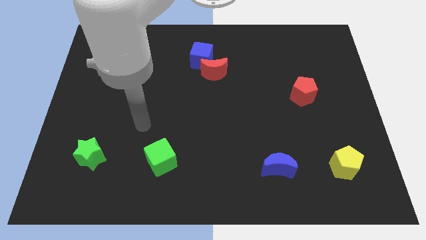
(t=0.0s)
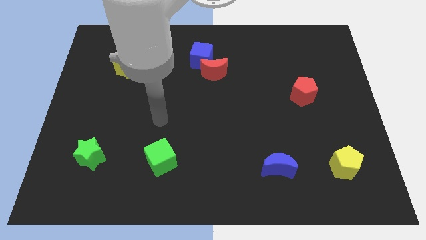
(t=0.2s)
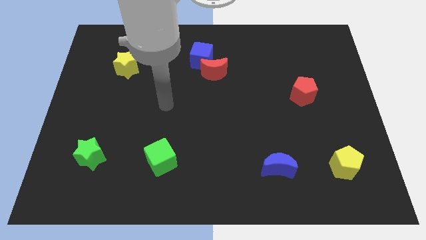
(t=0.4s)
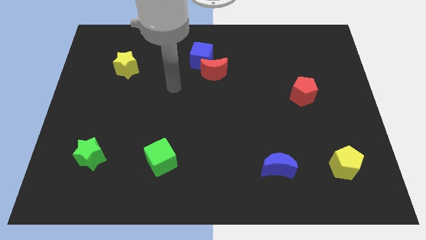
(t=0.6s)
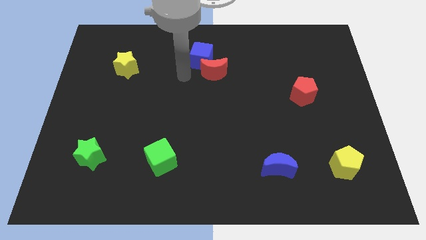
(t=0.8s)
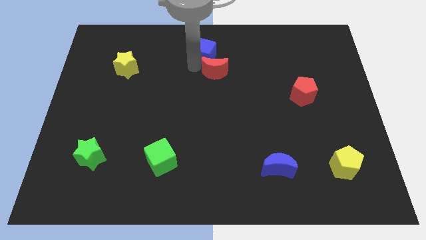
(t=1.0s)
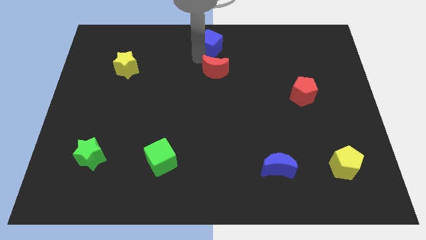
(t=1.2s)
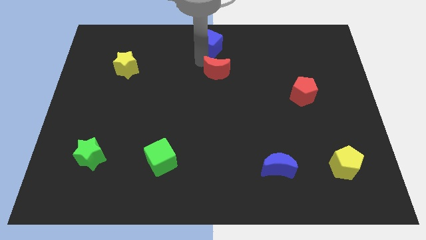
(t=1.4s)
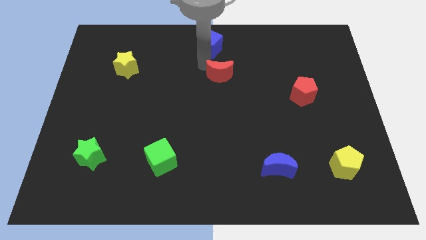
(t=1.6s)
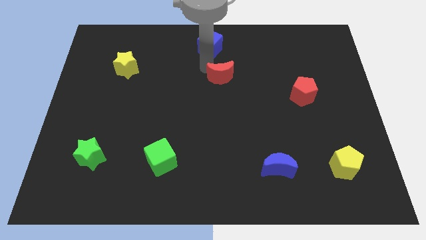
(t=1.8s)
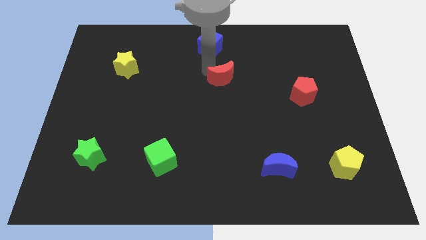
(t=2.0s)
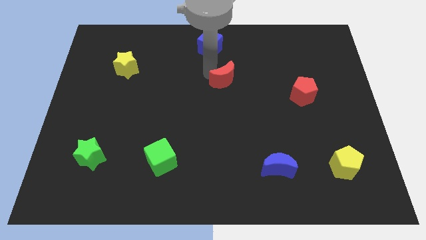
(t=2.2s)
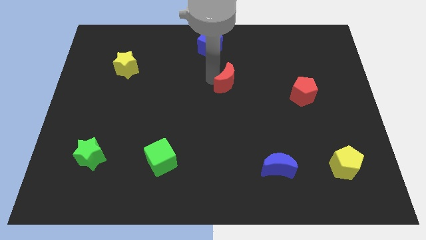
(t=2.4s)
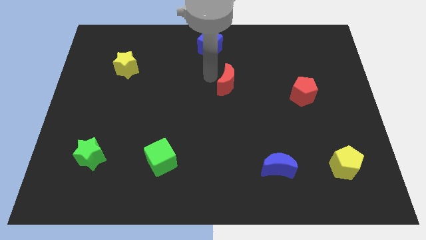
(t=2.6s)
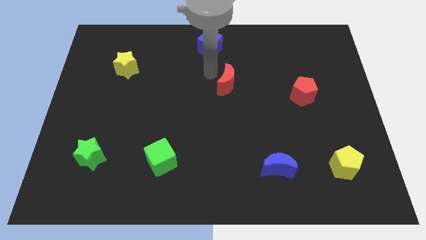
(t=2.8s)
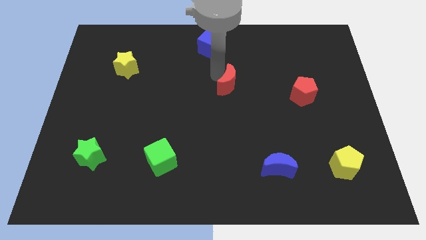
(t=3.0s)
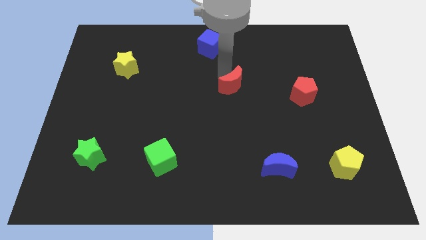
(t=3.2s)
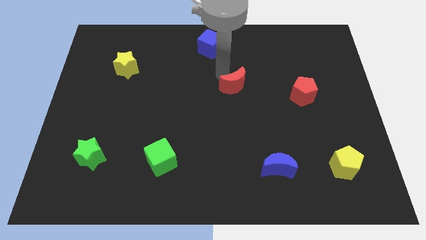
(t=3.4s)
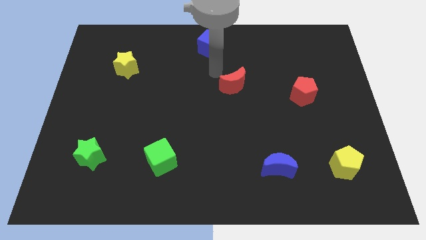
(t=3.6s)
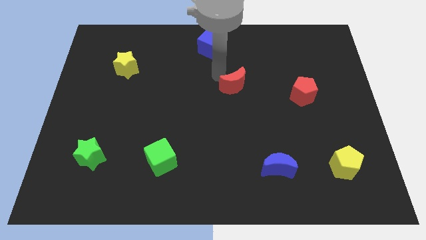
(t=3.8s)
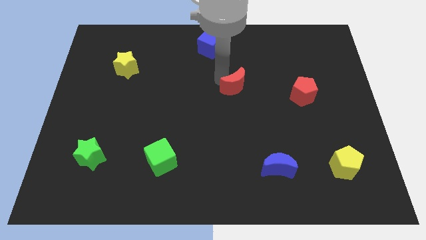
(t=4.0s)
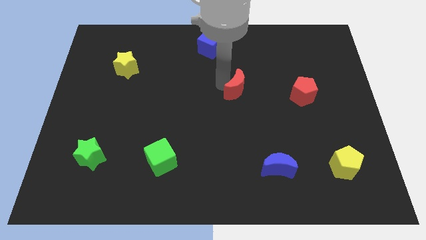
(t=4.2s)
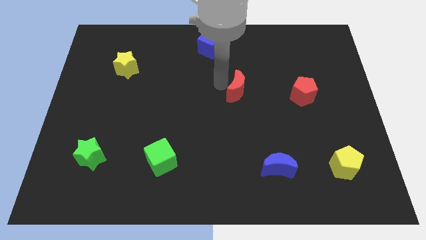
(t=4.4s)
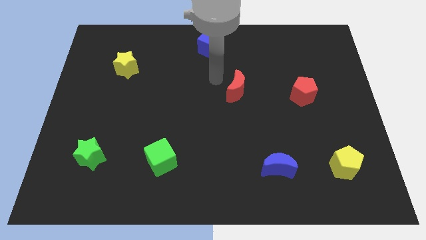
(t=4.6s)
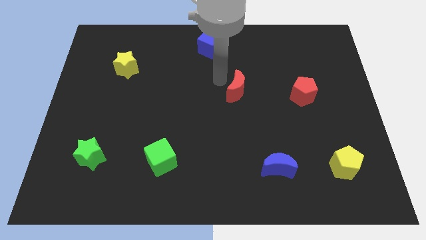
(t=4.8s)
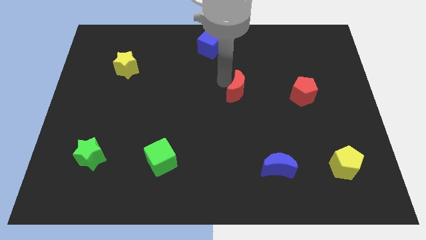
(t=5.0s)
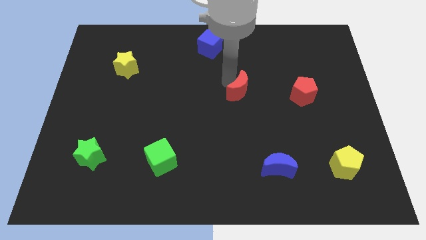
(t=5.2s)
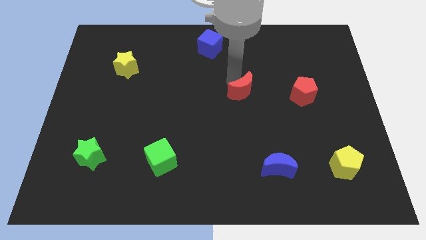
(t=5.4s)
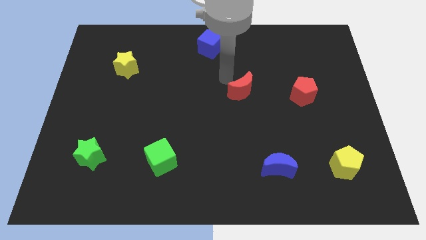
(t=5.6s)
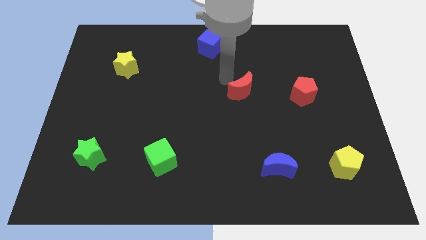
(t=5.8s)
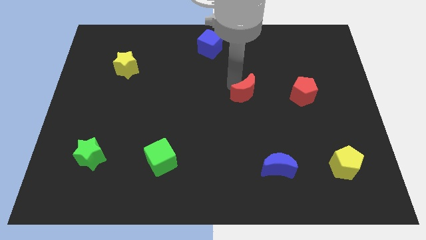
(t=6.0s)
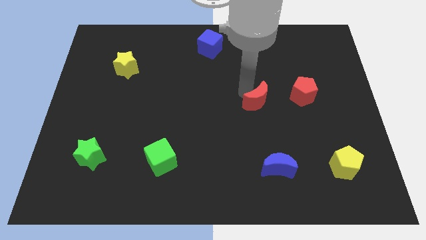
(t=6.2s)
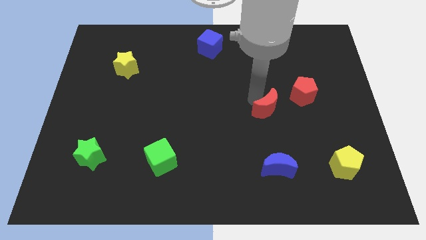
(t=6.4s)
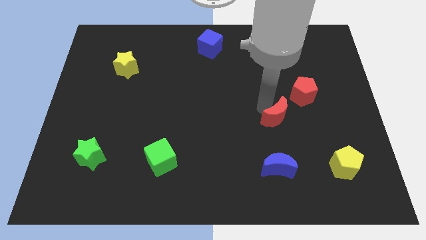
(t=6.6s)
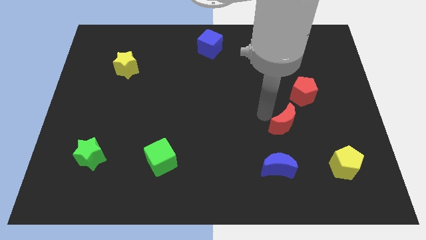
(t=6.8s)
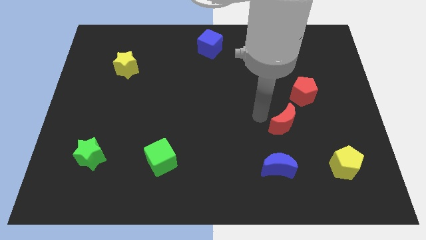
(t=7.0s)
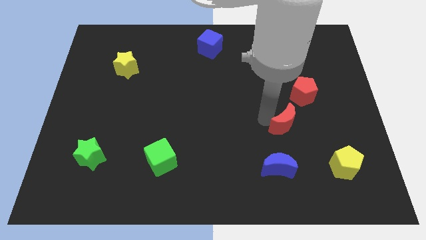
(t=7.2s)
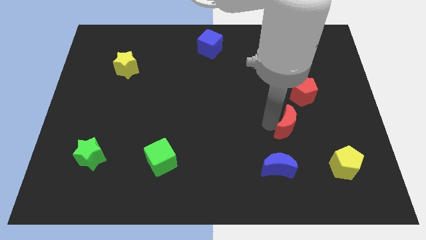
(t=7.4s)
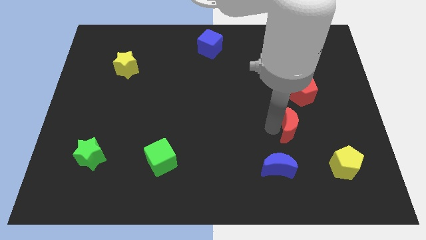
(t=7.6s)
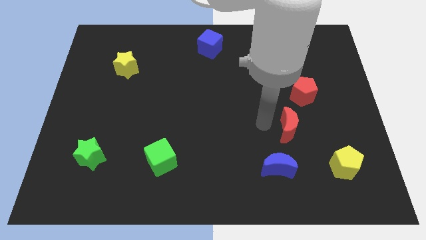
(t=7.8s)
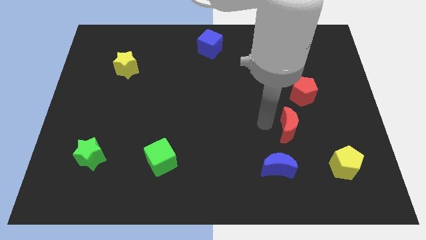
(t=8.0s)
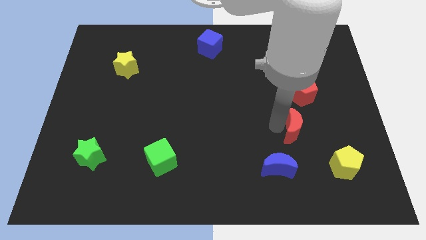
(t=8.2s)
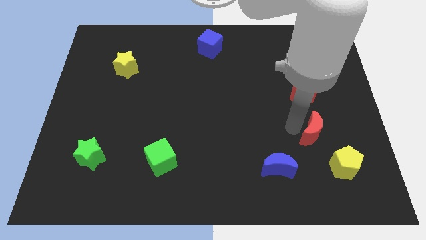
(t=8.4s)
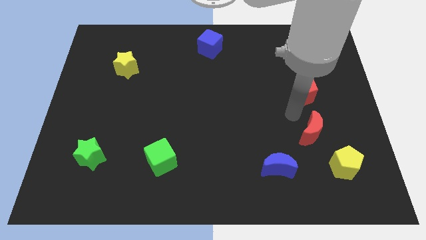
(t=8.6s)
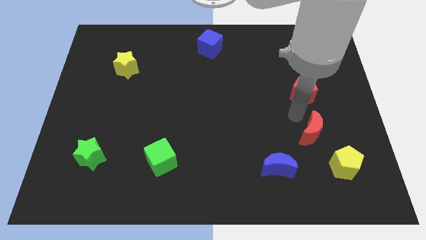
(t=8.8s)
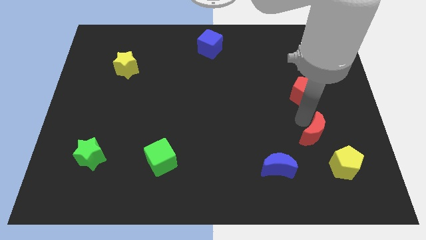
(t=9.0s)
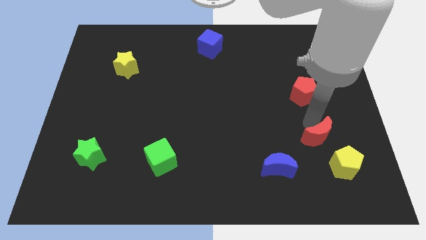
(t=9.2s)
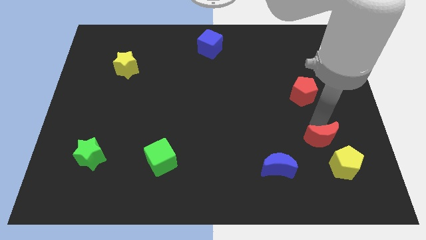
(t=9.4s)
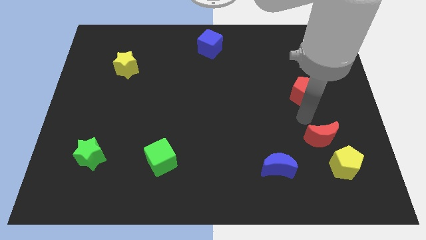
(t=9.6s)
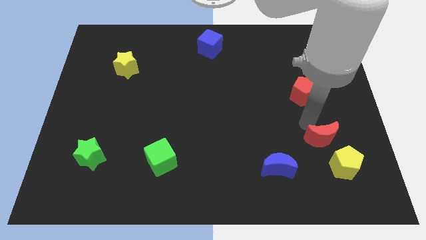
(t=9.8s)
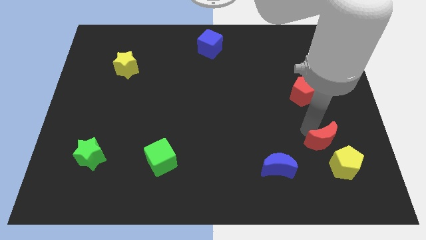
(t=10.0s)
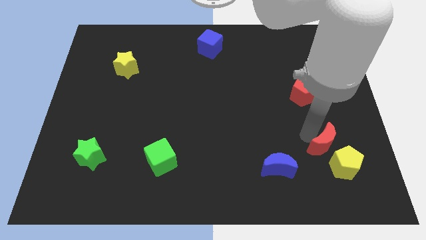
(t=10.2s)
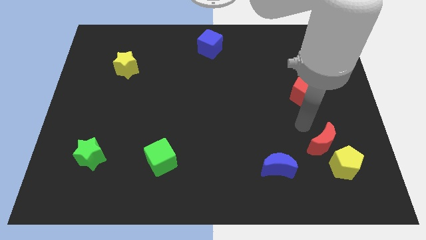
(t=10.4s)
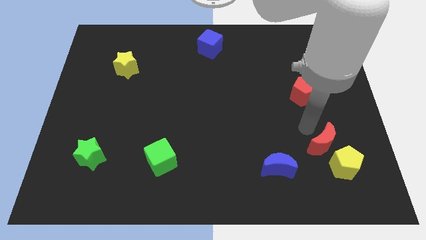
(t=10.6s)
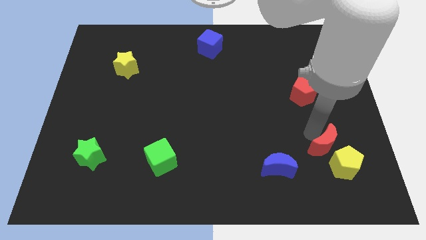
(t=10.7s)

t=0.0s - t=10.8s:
put the red moon next to the yellow pentagon

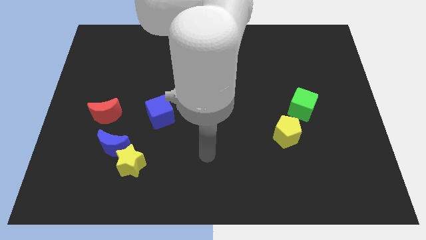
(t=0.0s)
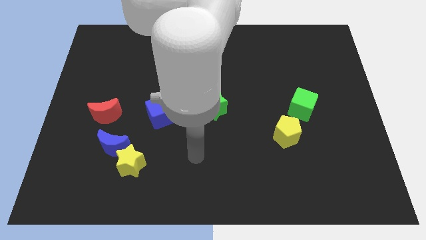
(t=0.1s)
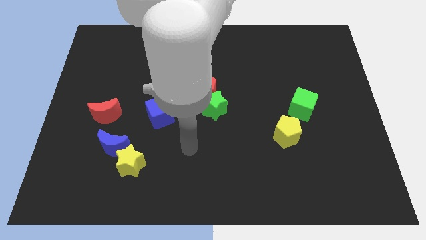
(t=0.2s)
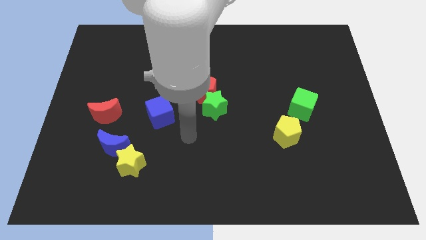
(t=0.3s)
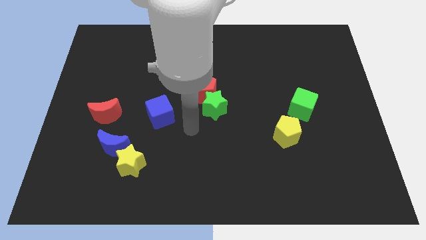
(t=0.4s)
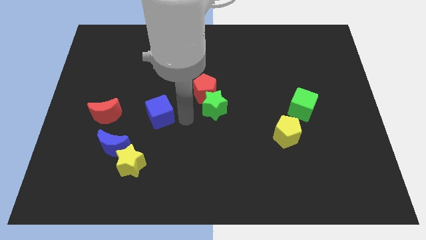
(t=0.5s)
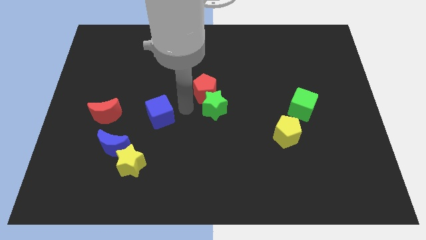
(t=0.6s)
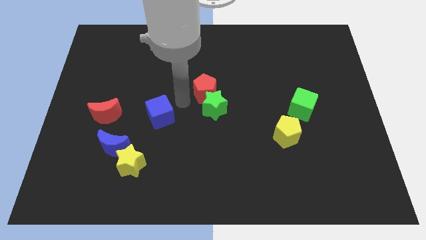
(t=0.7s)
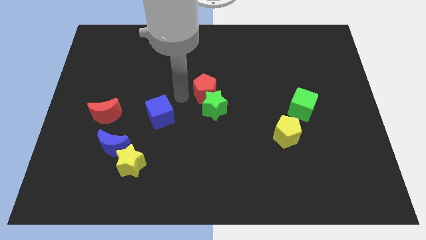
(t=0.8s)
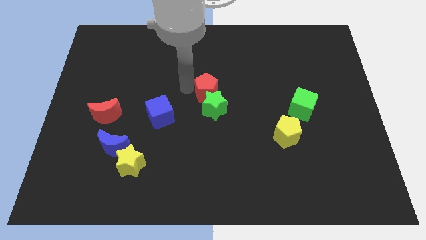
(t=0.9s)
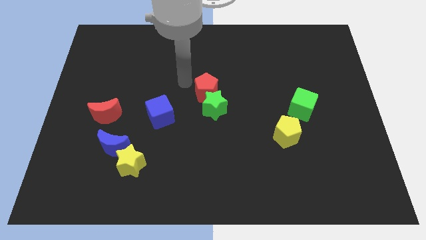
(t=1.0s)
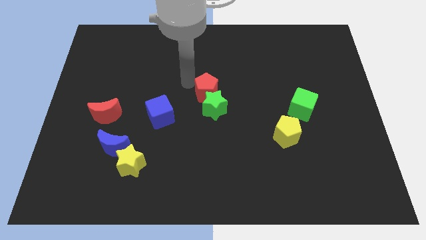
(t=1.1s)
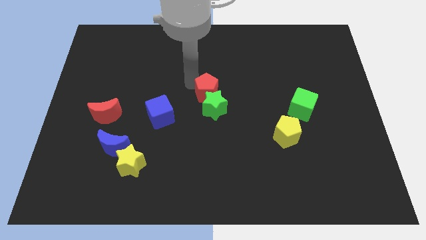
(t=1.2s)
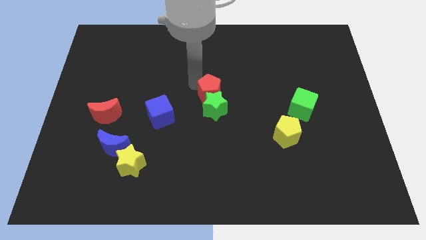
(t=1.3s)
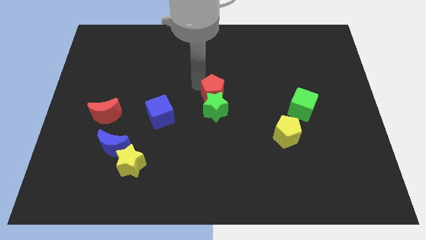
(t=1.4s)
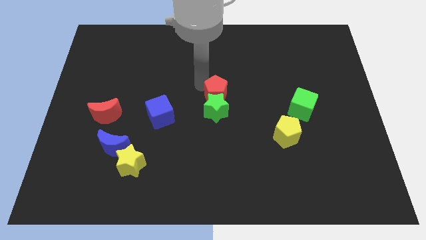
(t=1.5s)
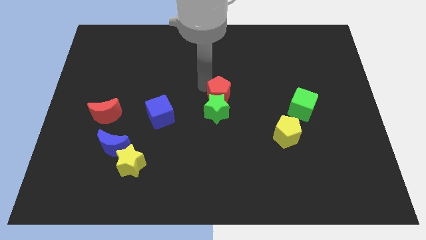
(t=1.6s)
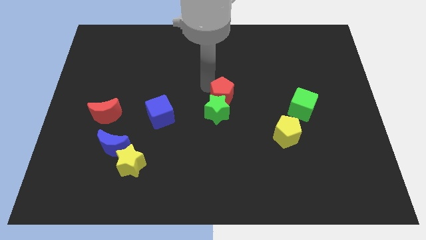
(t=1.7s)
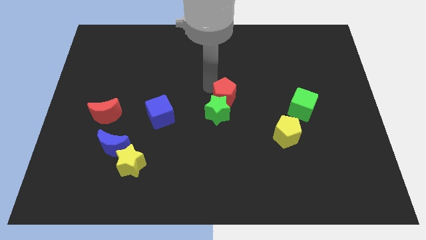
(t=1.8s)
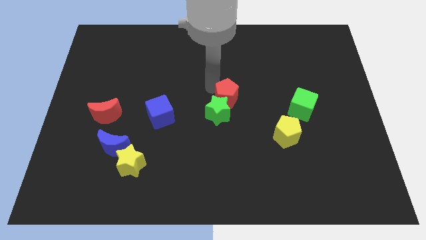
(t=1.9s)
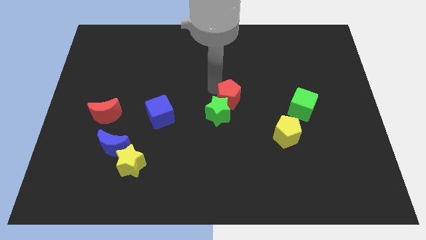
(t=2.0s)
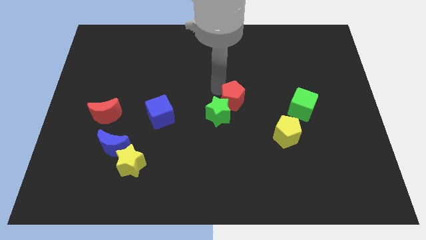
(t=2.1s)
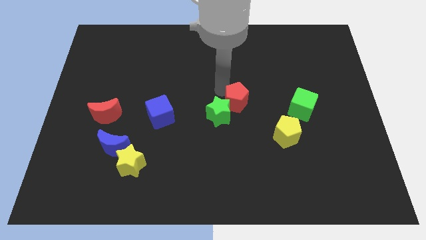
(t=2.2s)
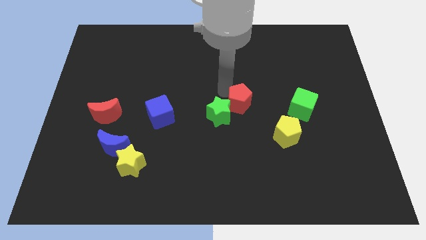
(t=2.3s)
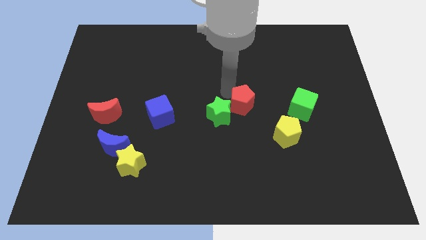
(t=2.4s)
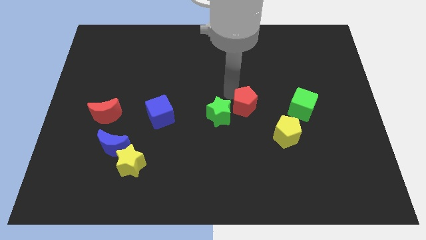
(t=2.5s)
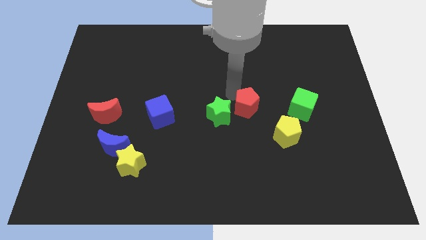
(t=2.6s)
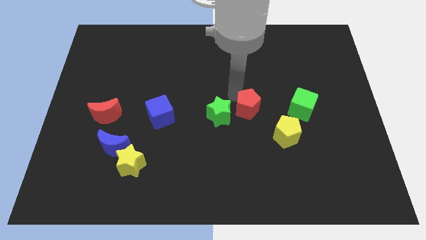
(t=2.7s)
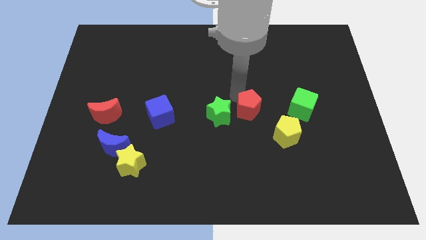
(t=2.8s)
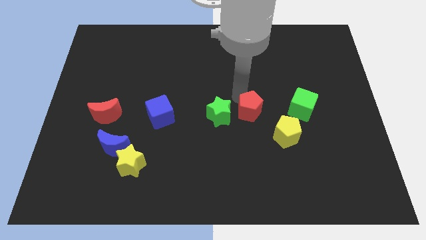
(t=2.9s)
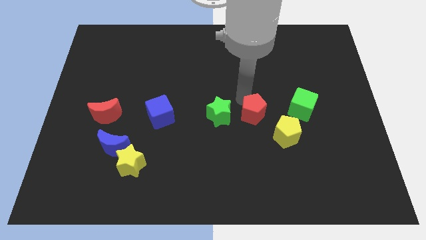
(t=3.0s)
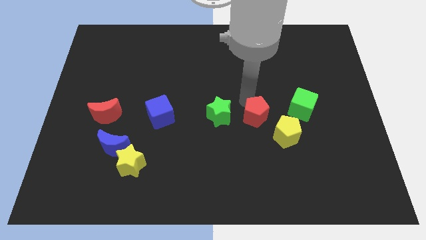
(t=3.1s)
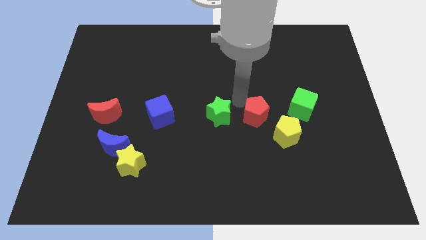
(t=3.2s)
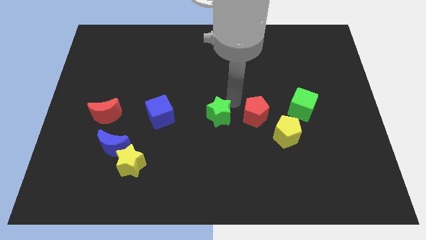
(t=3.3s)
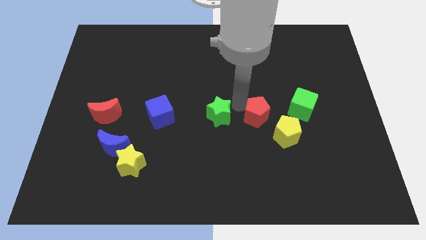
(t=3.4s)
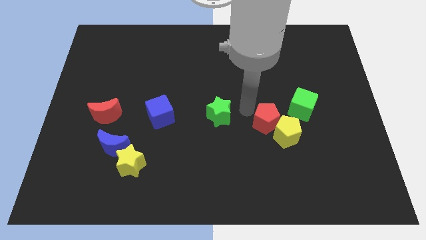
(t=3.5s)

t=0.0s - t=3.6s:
put the red pentagon close to the yellow pentagon
